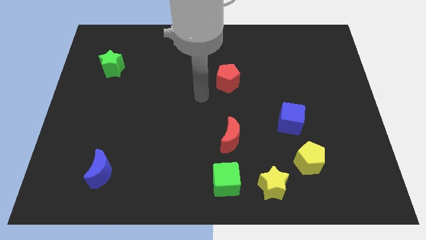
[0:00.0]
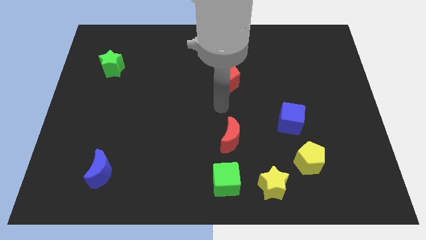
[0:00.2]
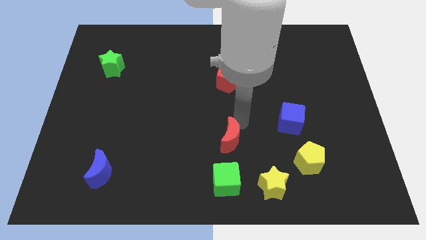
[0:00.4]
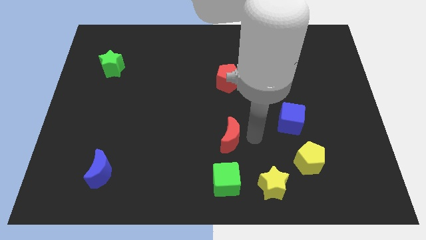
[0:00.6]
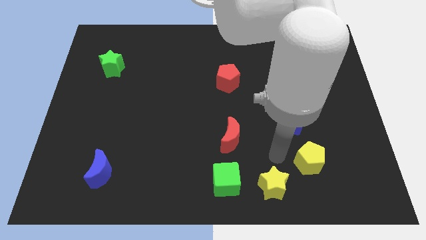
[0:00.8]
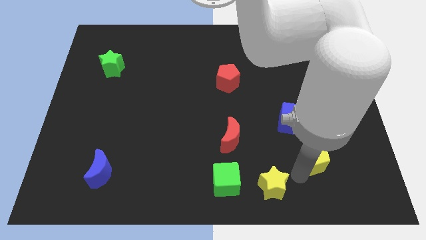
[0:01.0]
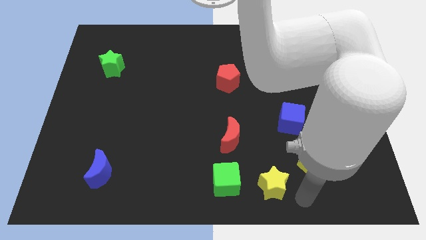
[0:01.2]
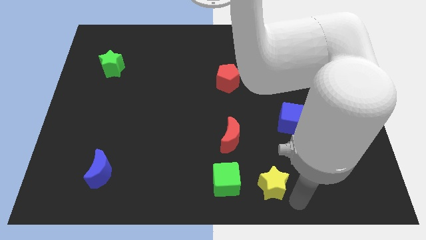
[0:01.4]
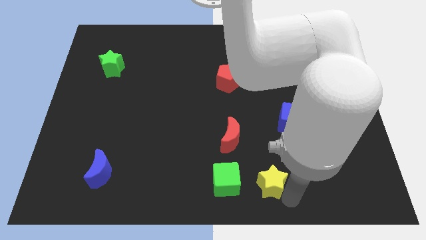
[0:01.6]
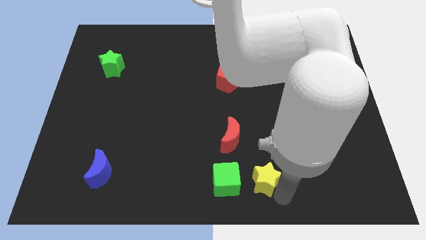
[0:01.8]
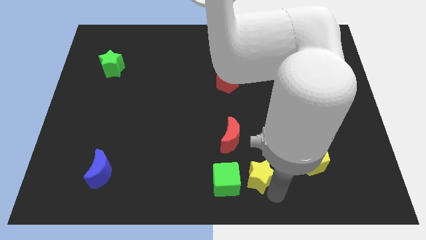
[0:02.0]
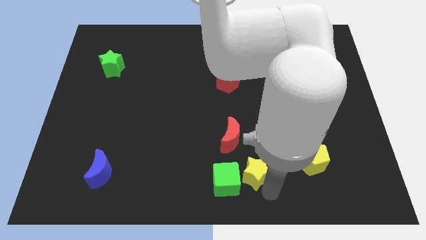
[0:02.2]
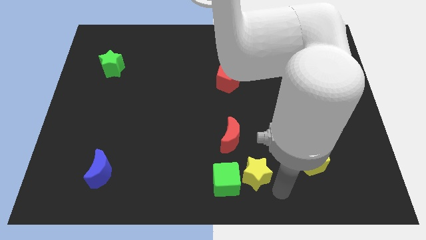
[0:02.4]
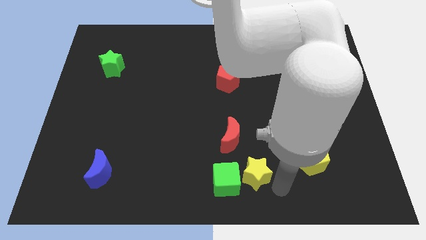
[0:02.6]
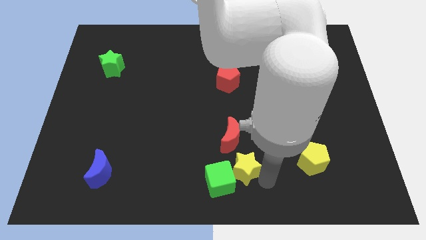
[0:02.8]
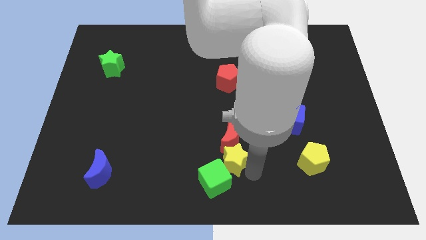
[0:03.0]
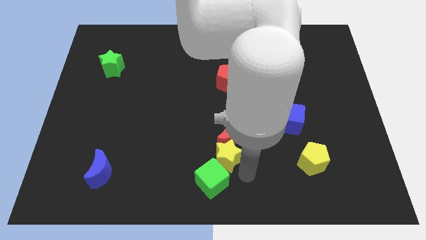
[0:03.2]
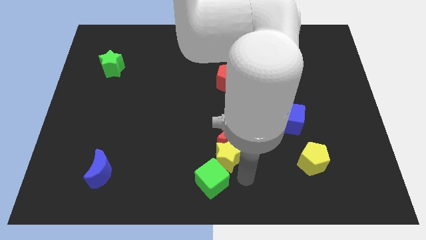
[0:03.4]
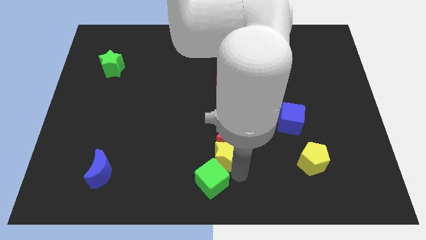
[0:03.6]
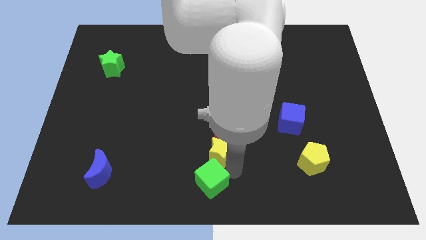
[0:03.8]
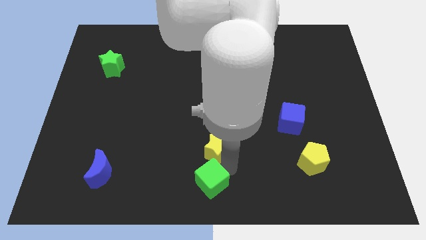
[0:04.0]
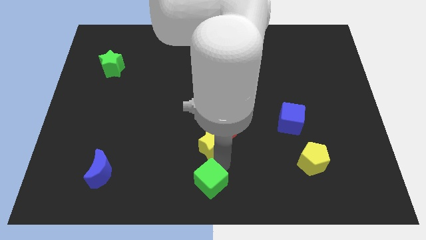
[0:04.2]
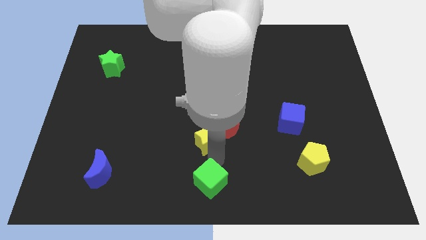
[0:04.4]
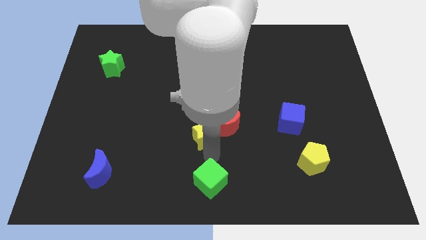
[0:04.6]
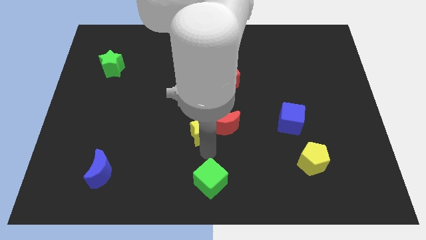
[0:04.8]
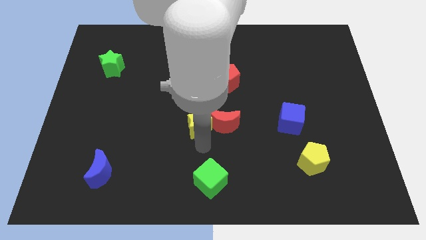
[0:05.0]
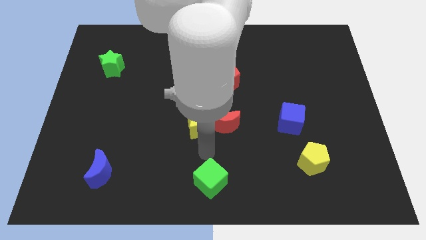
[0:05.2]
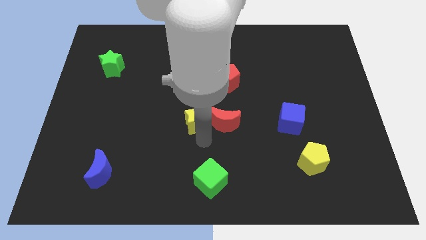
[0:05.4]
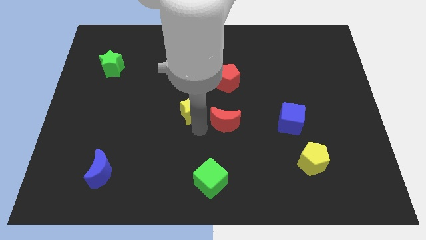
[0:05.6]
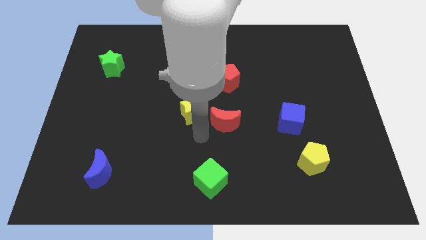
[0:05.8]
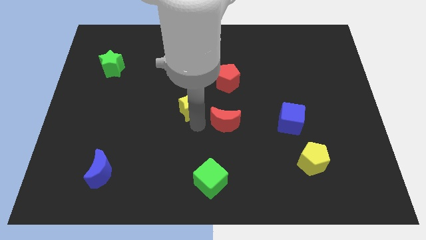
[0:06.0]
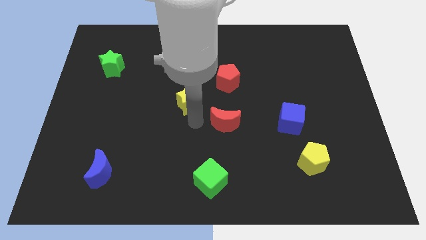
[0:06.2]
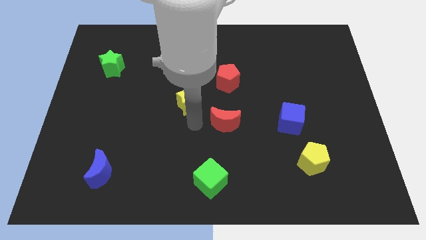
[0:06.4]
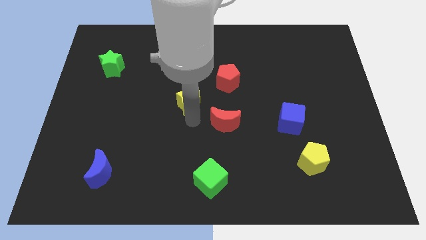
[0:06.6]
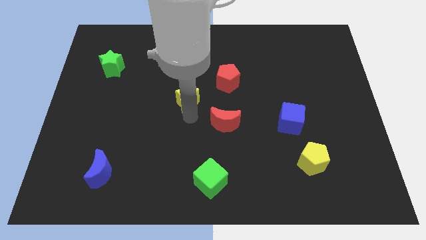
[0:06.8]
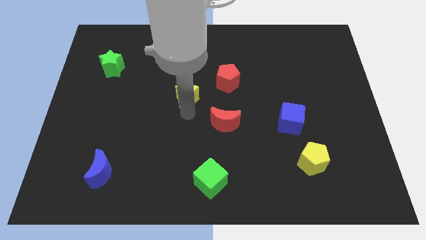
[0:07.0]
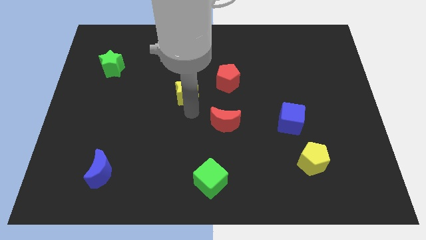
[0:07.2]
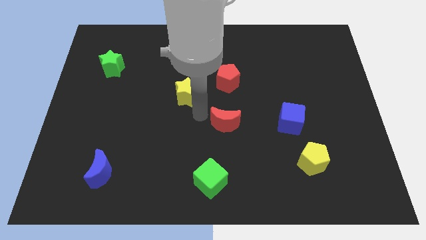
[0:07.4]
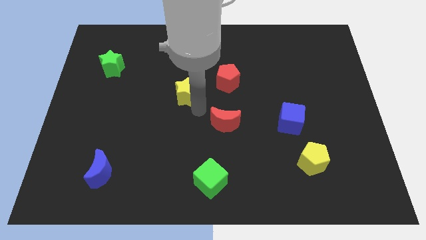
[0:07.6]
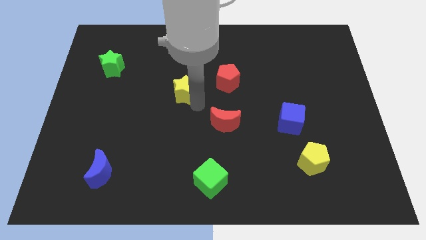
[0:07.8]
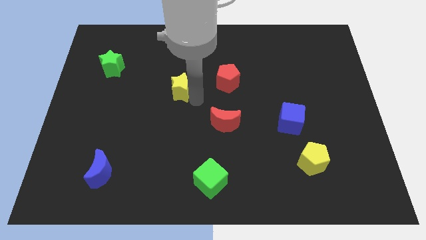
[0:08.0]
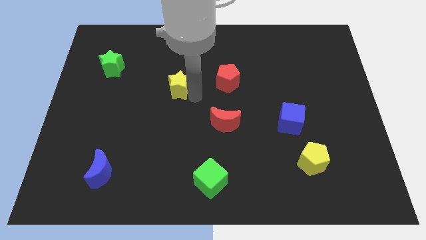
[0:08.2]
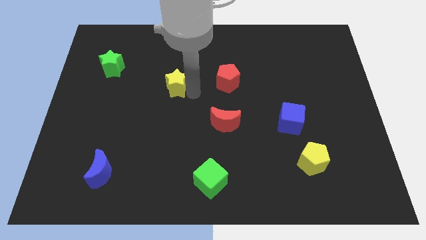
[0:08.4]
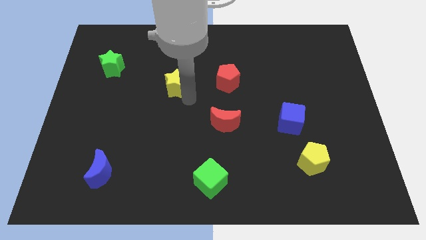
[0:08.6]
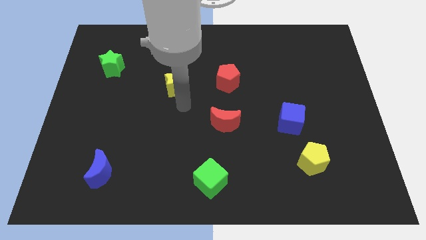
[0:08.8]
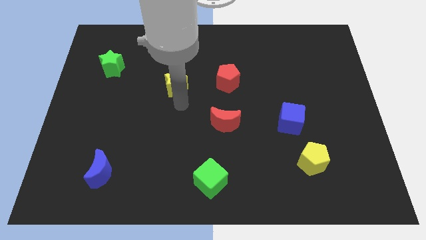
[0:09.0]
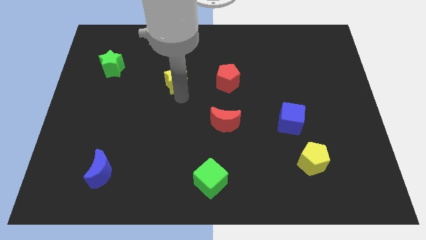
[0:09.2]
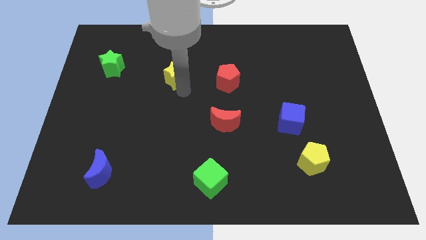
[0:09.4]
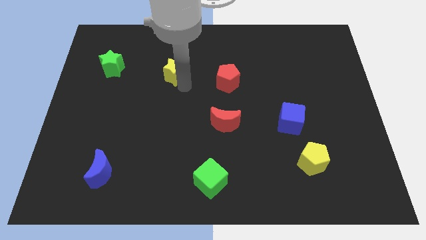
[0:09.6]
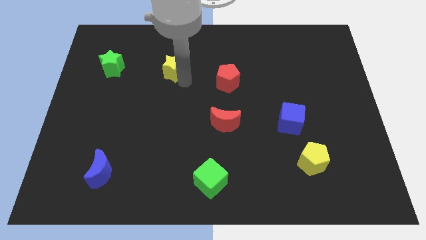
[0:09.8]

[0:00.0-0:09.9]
push the yellow star right of the green star

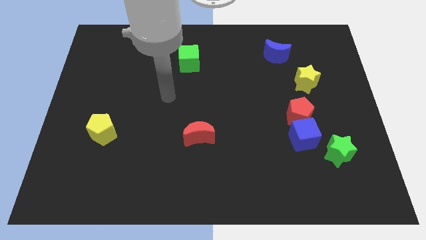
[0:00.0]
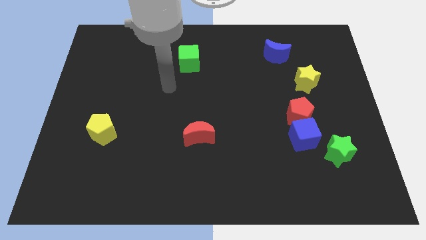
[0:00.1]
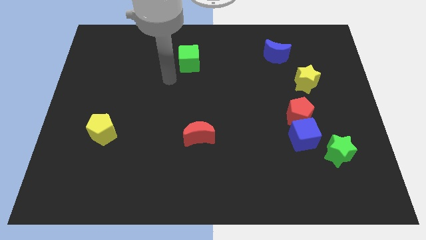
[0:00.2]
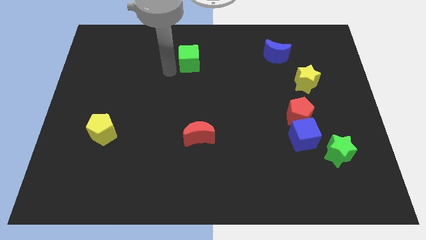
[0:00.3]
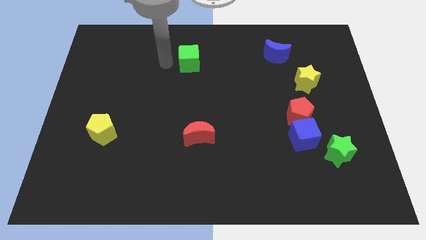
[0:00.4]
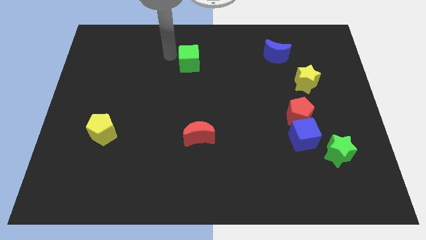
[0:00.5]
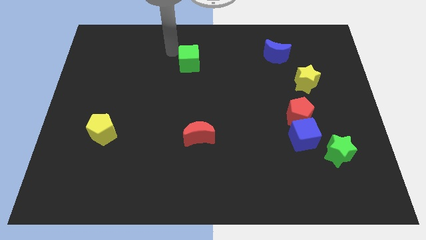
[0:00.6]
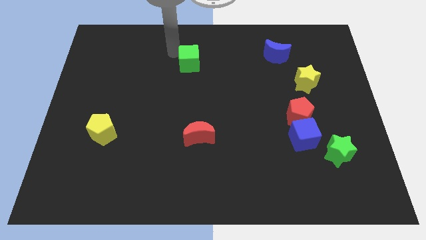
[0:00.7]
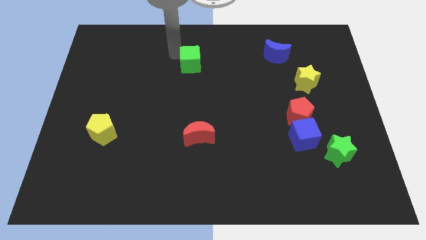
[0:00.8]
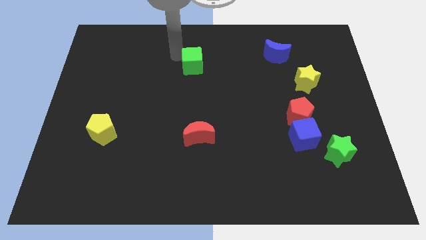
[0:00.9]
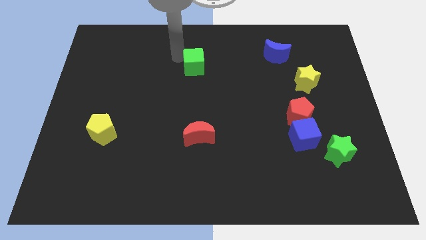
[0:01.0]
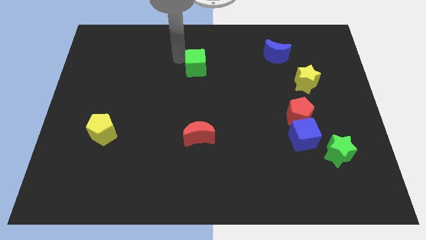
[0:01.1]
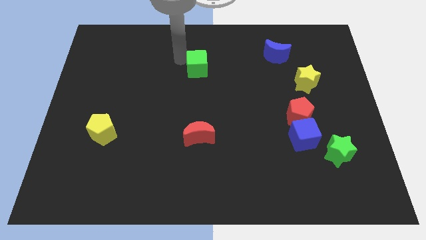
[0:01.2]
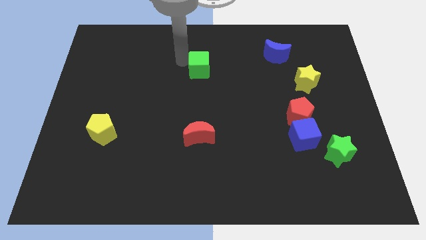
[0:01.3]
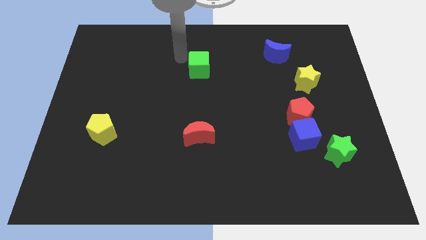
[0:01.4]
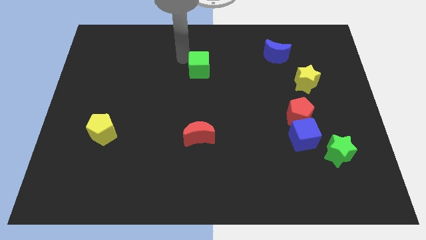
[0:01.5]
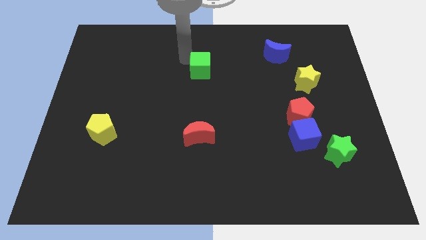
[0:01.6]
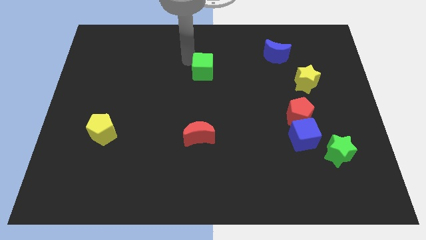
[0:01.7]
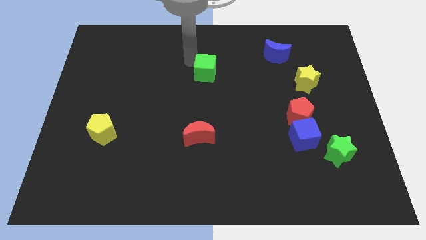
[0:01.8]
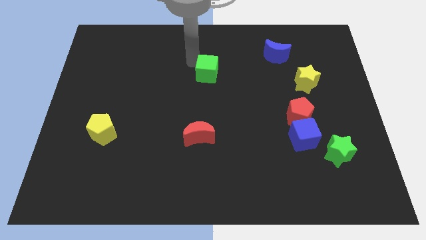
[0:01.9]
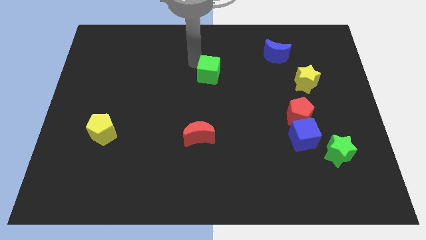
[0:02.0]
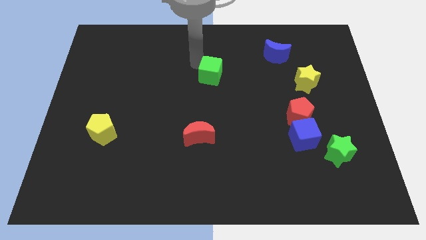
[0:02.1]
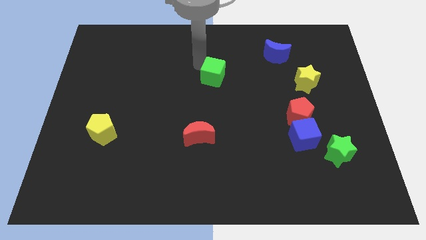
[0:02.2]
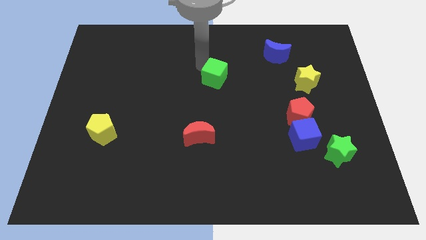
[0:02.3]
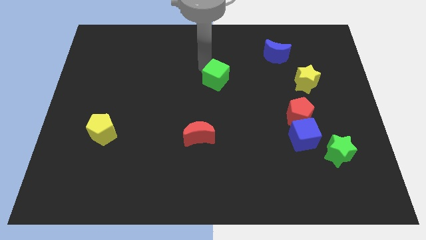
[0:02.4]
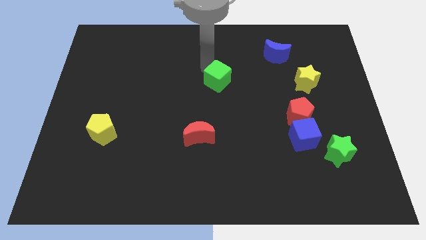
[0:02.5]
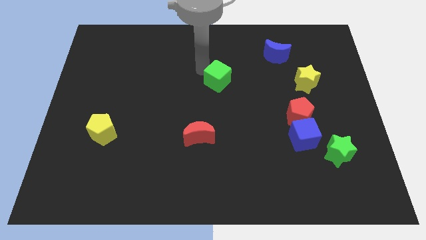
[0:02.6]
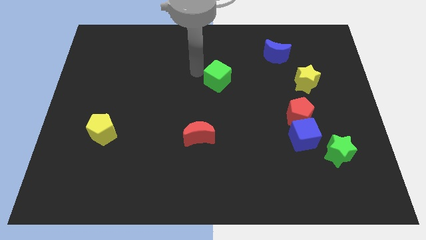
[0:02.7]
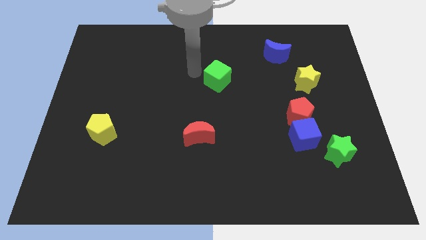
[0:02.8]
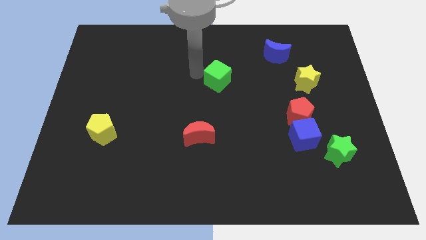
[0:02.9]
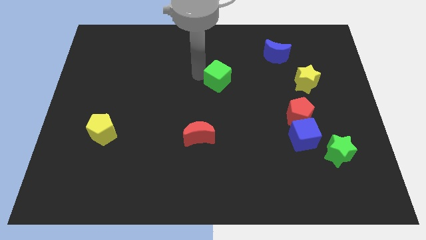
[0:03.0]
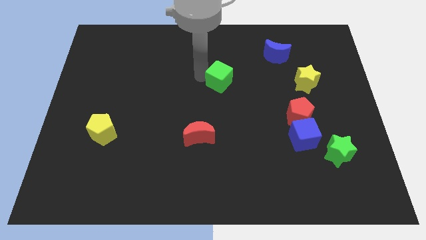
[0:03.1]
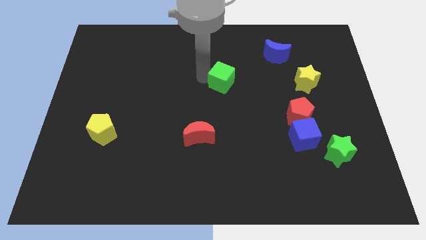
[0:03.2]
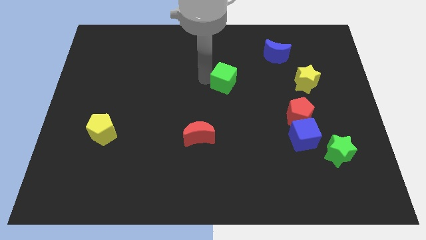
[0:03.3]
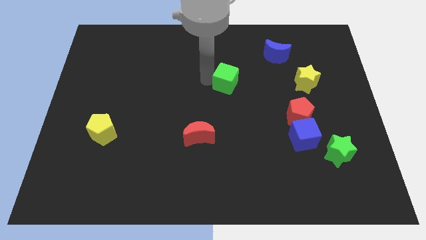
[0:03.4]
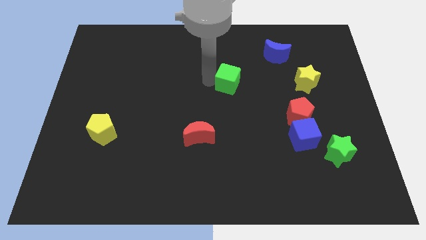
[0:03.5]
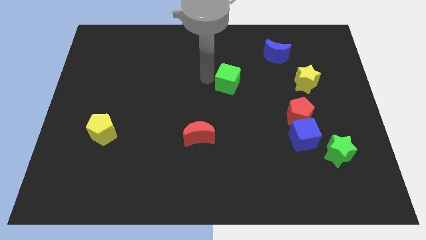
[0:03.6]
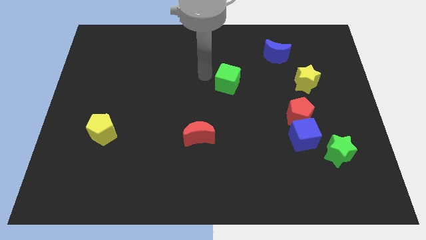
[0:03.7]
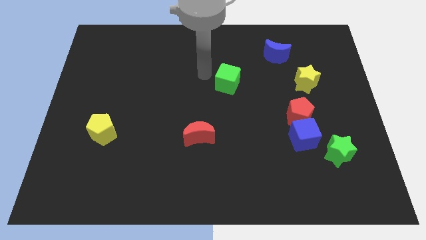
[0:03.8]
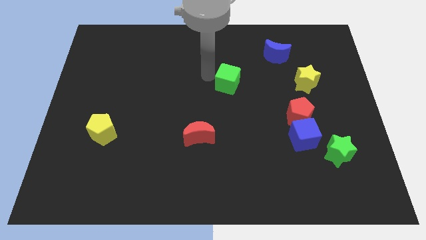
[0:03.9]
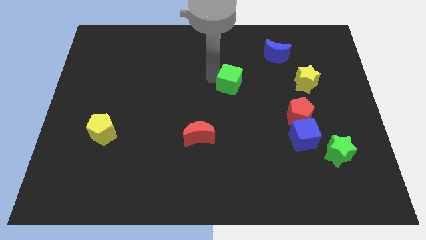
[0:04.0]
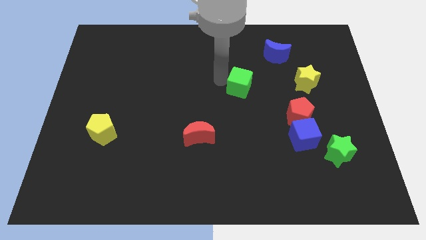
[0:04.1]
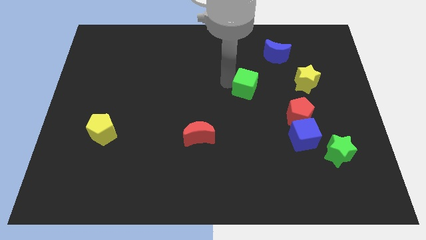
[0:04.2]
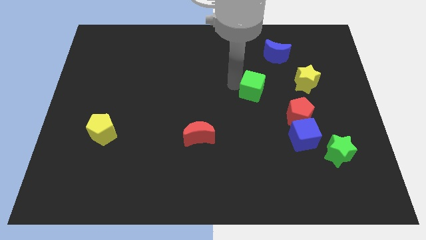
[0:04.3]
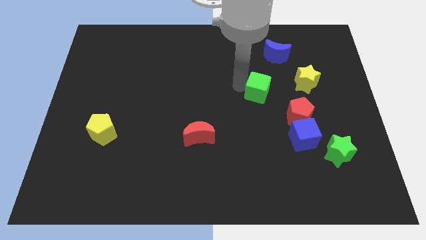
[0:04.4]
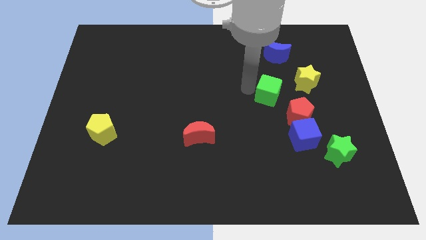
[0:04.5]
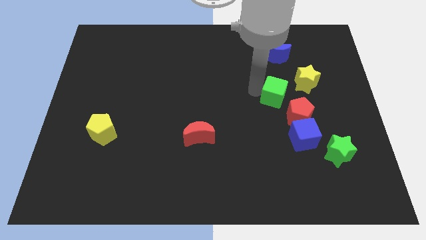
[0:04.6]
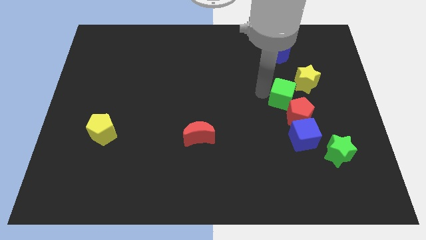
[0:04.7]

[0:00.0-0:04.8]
move the green cube to the top of the blue cube
